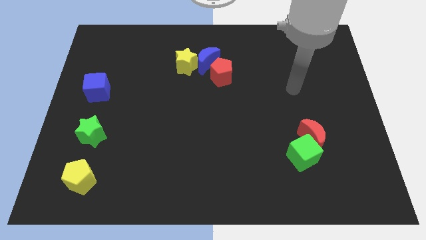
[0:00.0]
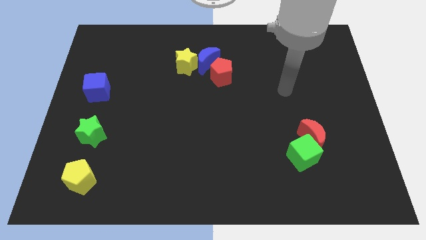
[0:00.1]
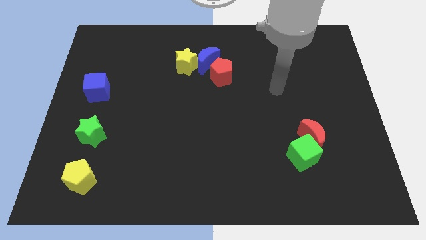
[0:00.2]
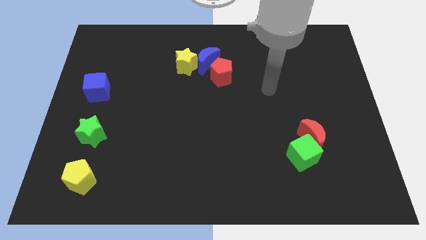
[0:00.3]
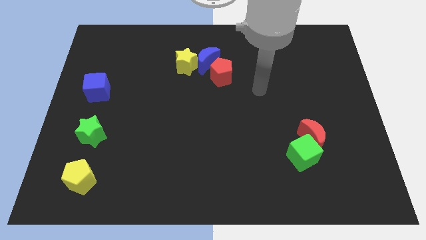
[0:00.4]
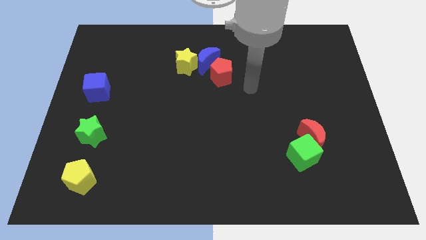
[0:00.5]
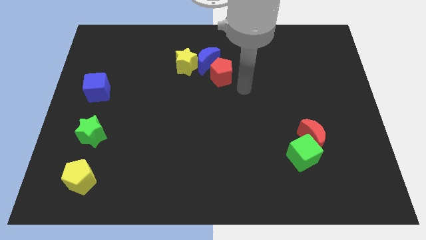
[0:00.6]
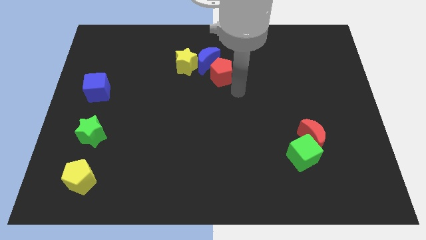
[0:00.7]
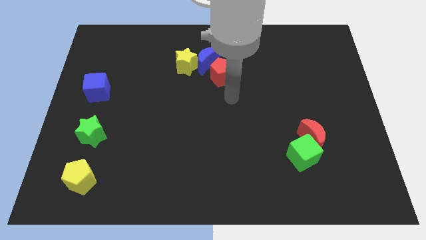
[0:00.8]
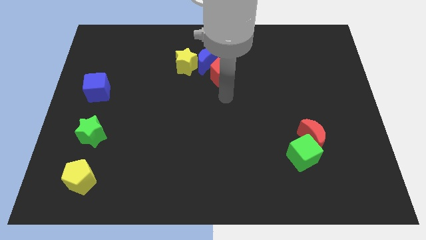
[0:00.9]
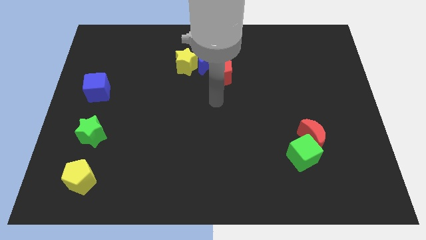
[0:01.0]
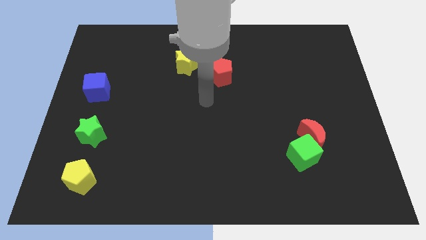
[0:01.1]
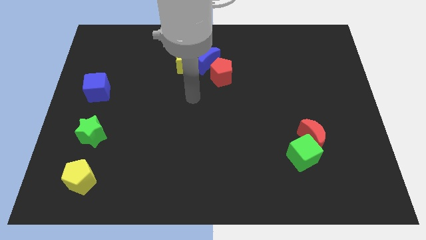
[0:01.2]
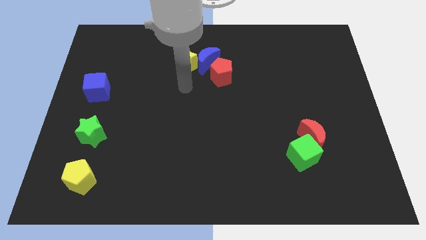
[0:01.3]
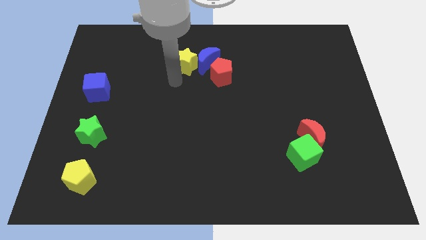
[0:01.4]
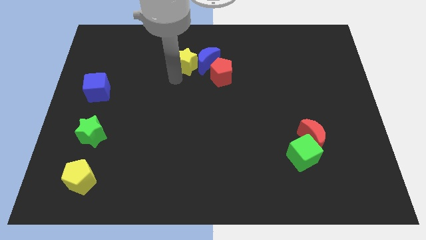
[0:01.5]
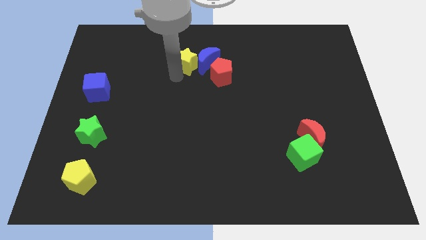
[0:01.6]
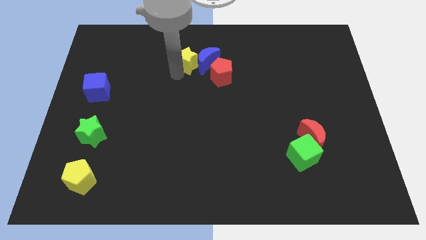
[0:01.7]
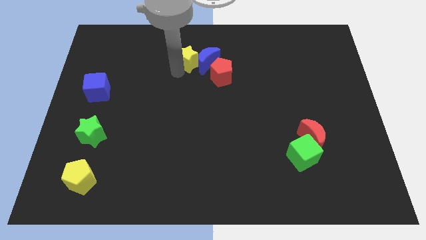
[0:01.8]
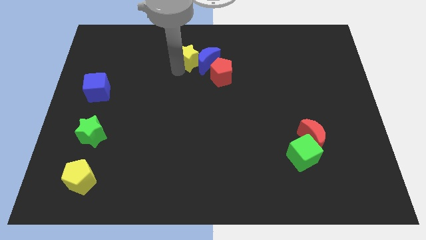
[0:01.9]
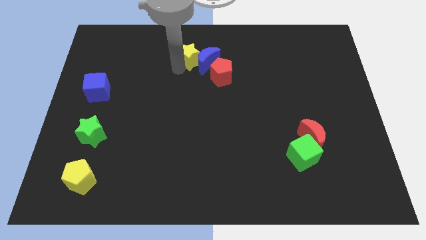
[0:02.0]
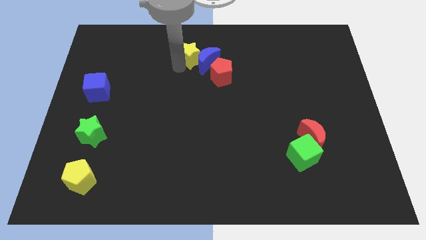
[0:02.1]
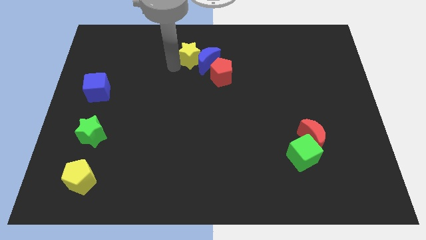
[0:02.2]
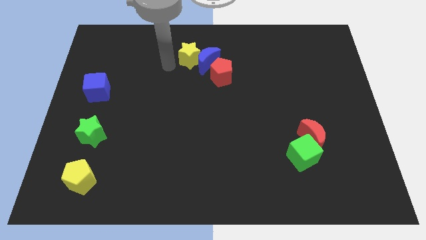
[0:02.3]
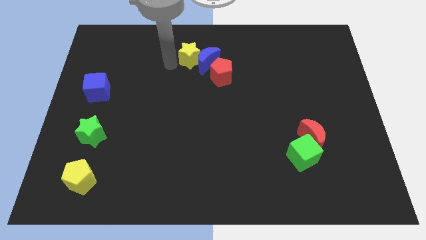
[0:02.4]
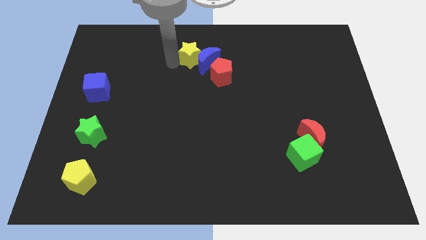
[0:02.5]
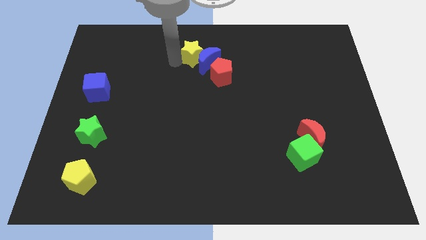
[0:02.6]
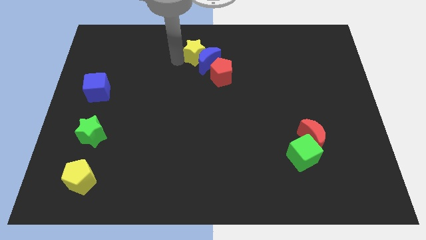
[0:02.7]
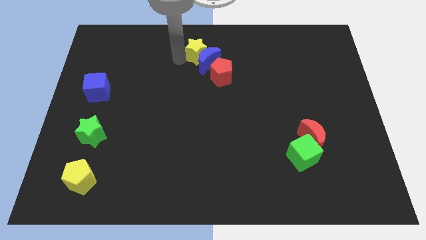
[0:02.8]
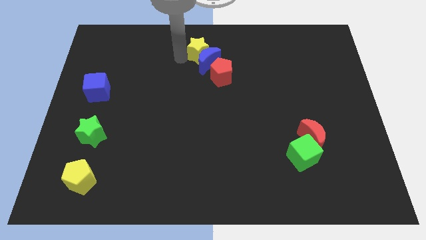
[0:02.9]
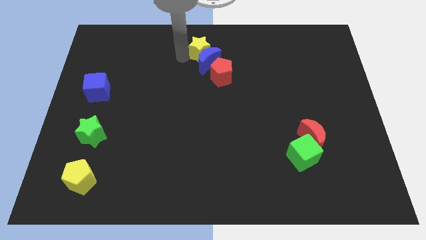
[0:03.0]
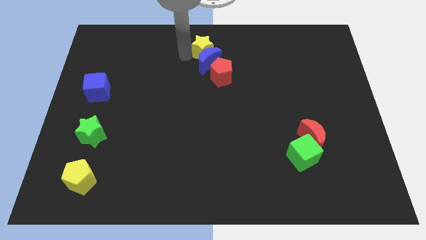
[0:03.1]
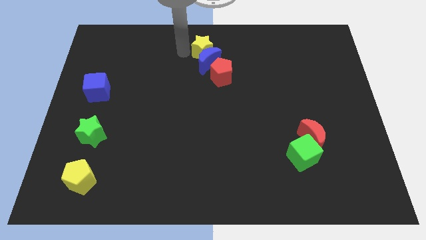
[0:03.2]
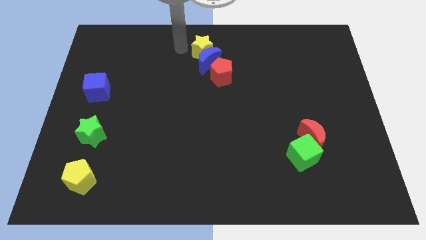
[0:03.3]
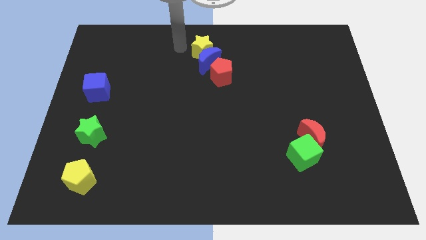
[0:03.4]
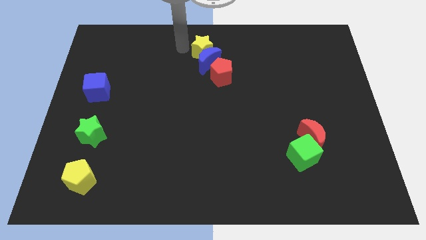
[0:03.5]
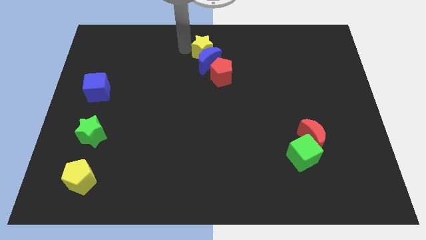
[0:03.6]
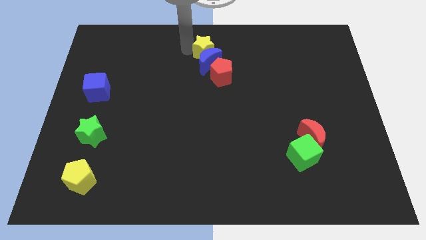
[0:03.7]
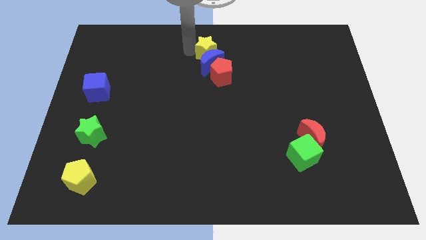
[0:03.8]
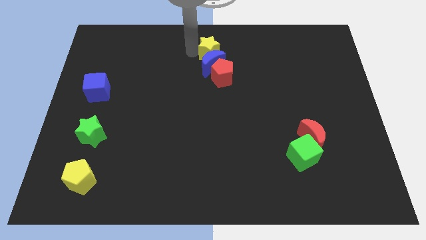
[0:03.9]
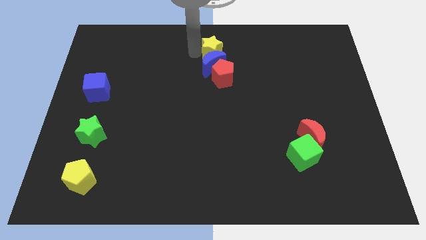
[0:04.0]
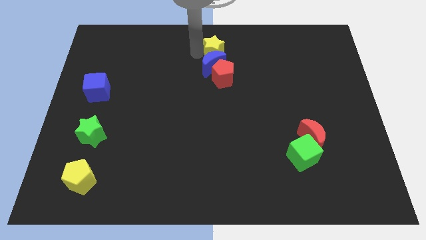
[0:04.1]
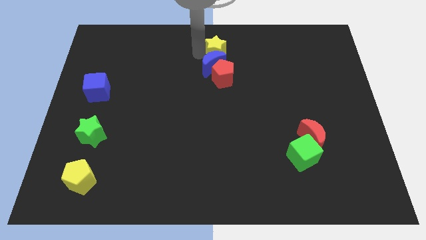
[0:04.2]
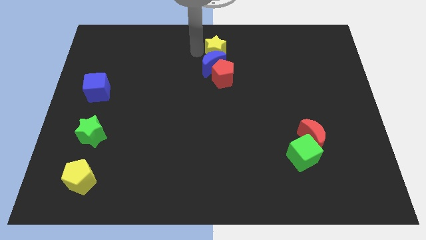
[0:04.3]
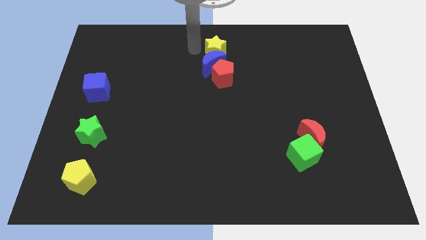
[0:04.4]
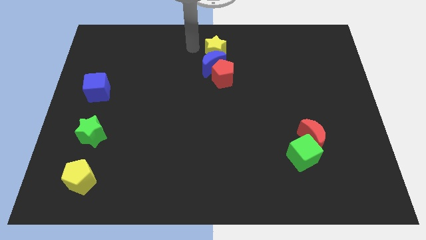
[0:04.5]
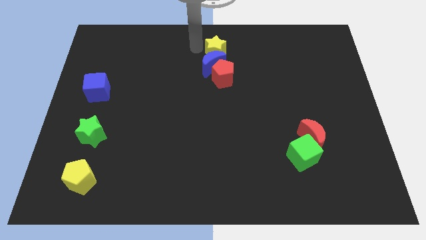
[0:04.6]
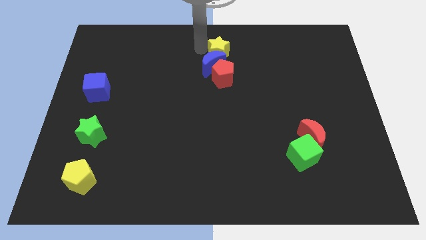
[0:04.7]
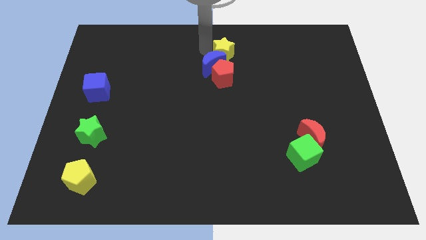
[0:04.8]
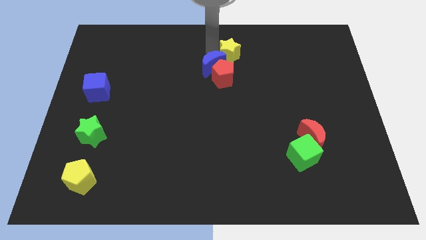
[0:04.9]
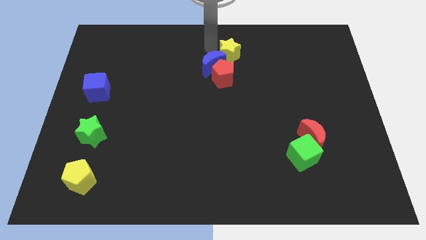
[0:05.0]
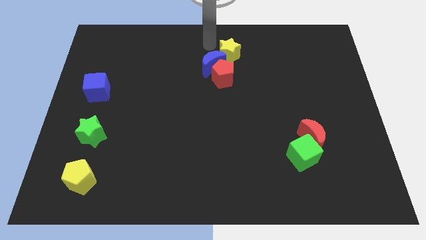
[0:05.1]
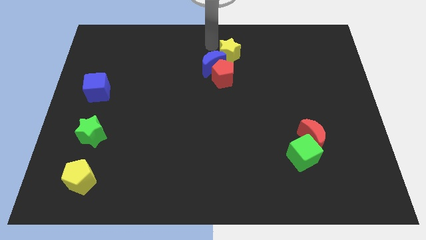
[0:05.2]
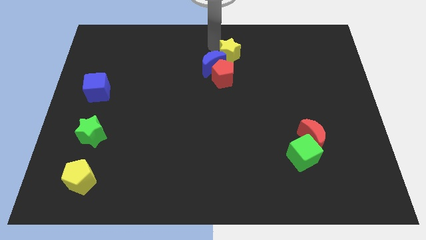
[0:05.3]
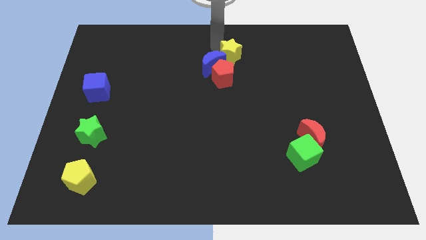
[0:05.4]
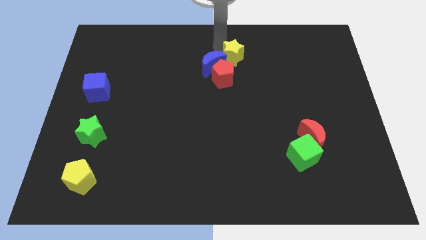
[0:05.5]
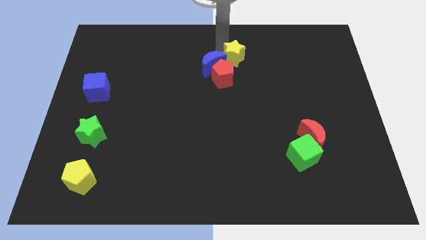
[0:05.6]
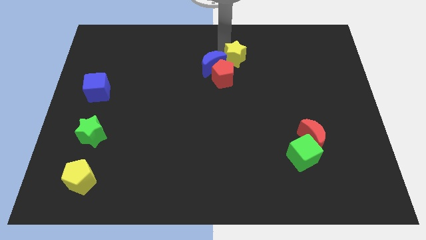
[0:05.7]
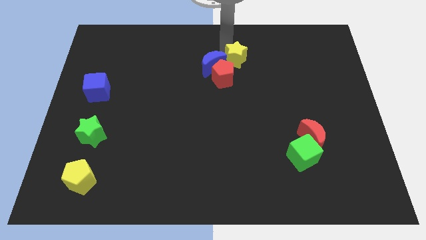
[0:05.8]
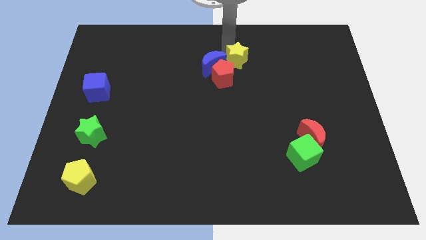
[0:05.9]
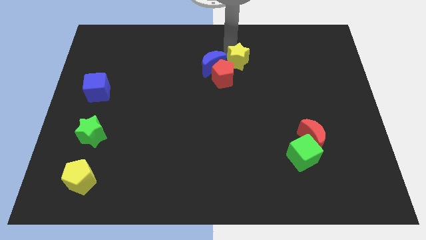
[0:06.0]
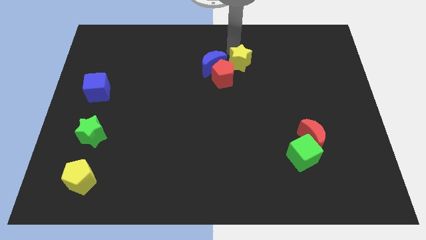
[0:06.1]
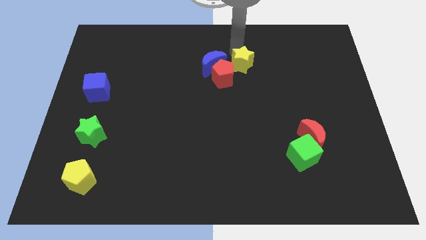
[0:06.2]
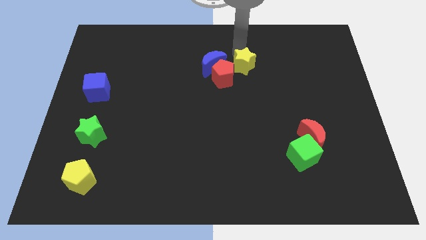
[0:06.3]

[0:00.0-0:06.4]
slide the yellow star right of the red pentagon
